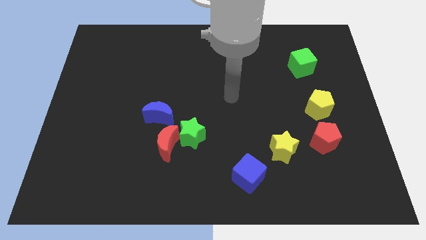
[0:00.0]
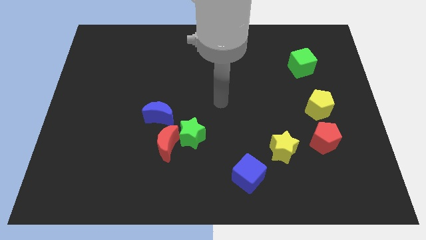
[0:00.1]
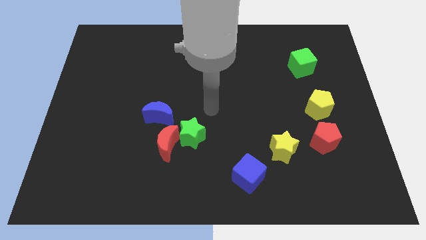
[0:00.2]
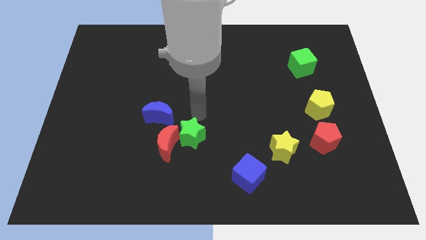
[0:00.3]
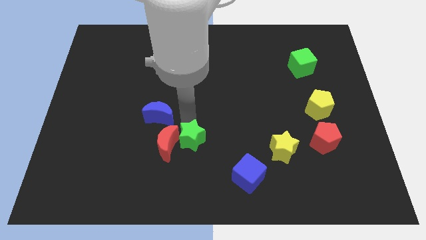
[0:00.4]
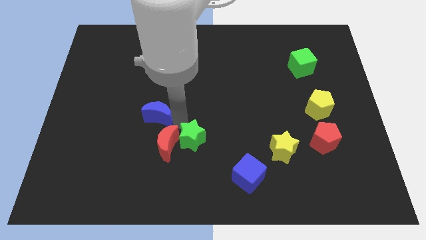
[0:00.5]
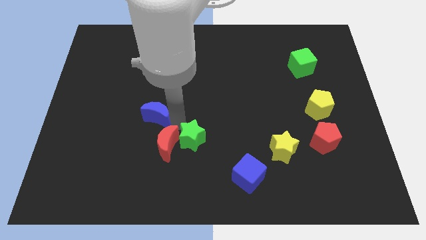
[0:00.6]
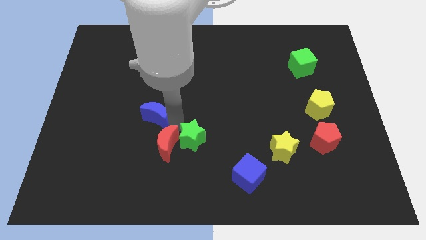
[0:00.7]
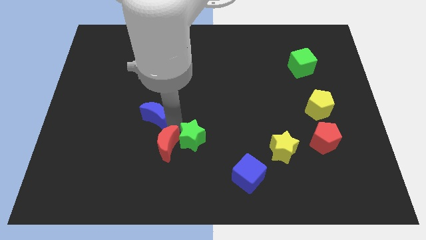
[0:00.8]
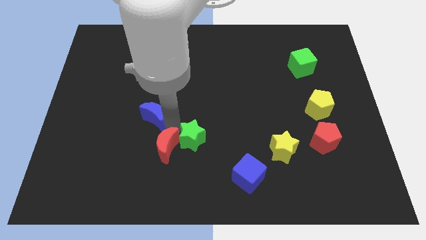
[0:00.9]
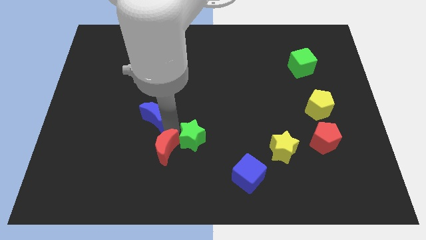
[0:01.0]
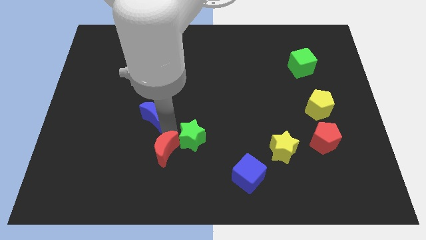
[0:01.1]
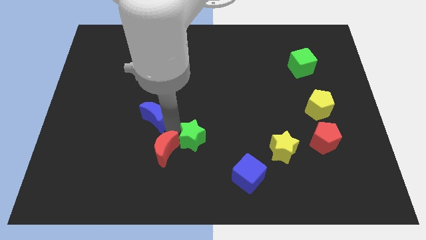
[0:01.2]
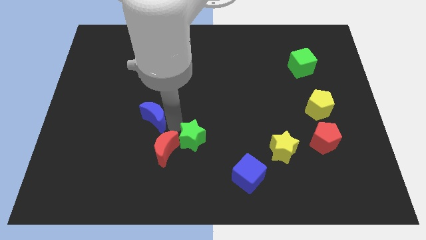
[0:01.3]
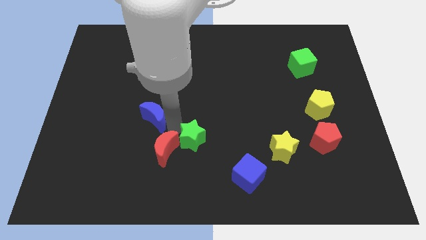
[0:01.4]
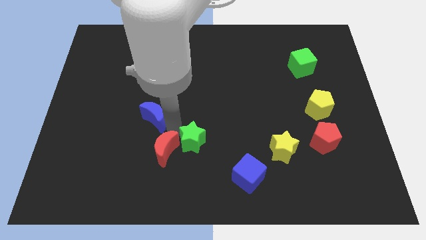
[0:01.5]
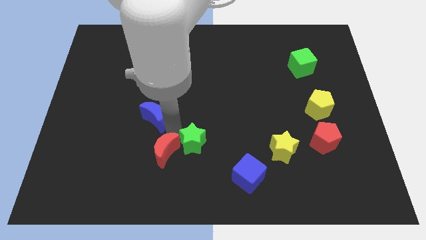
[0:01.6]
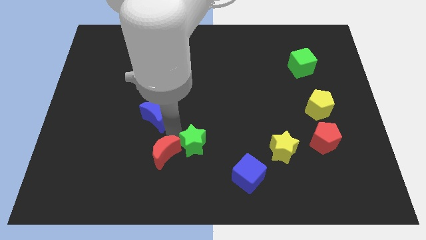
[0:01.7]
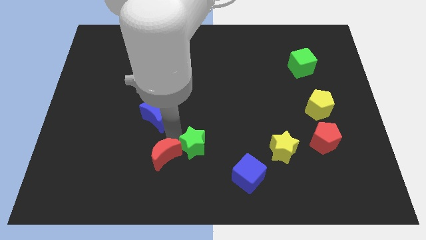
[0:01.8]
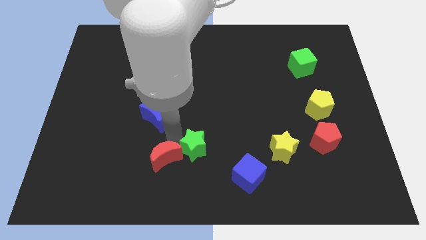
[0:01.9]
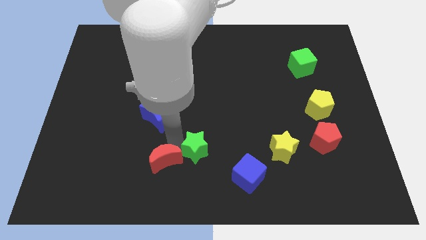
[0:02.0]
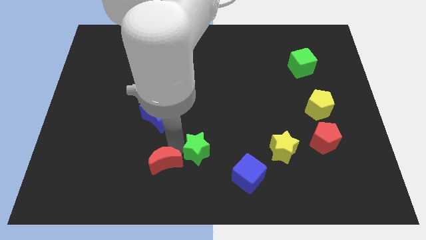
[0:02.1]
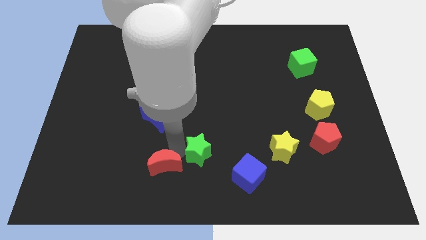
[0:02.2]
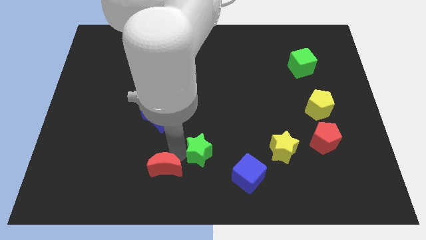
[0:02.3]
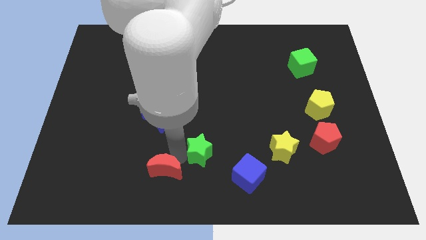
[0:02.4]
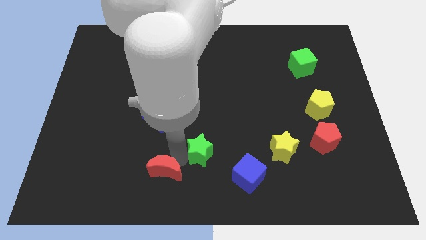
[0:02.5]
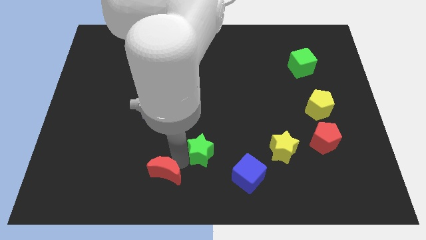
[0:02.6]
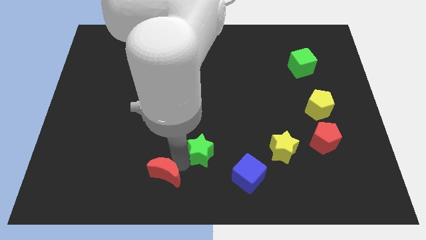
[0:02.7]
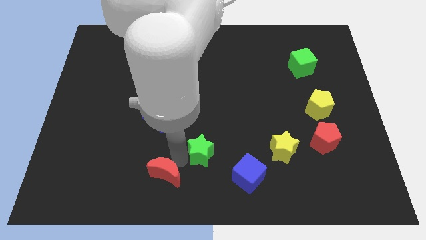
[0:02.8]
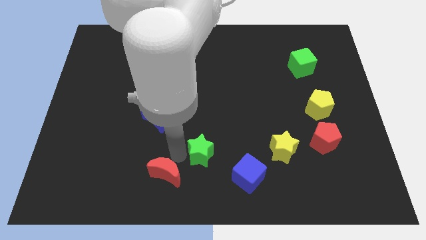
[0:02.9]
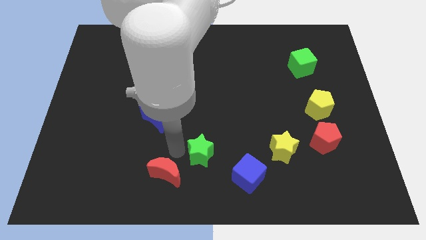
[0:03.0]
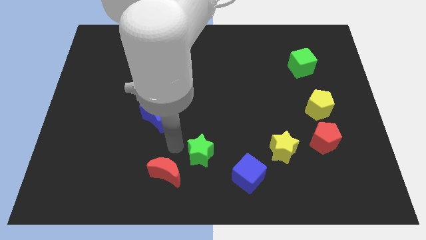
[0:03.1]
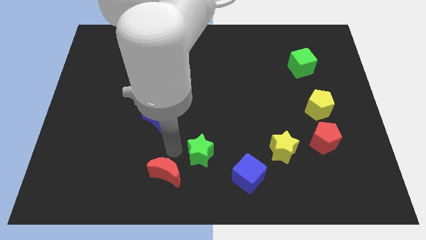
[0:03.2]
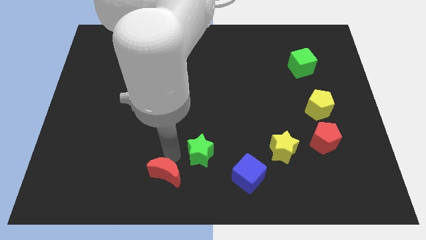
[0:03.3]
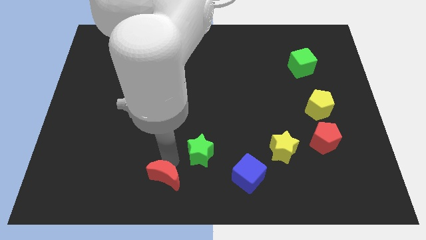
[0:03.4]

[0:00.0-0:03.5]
separate the red moon from the green star and blue moon

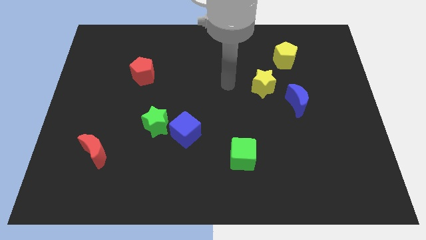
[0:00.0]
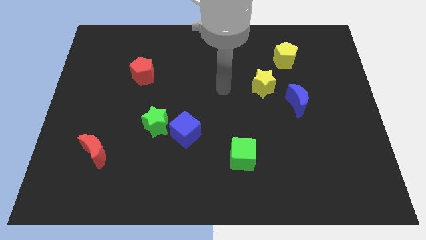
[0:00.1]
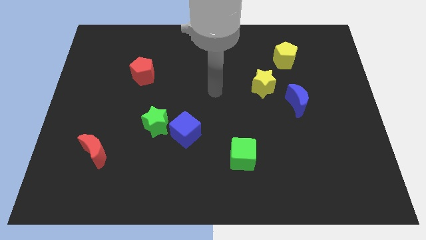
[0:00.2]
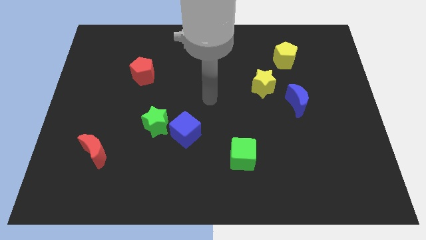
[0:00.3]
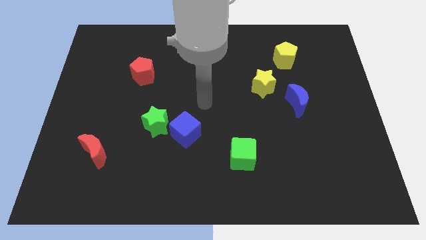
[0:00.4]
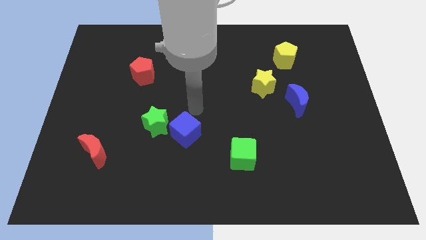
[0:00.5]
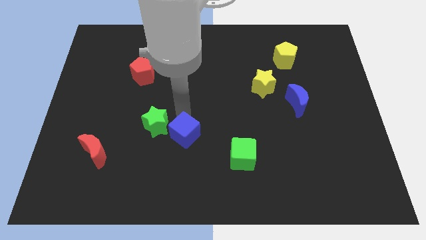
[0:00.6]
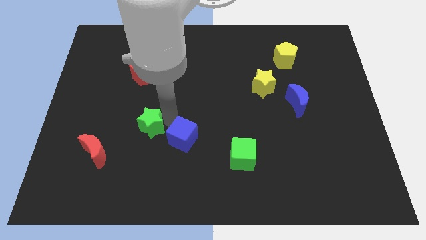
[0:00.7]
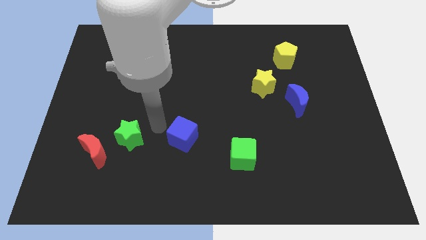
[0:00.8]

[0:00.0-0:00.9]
pull the blue cube apart from the green star

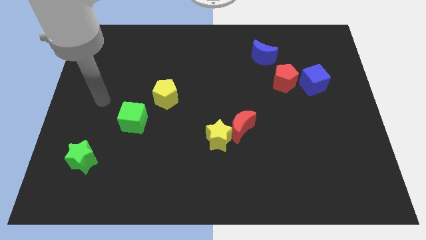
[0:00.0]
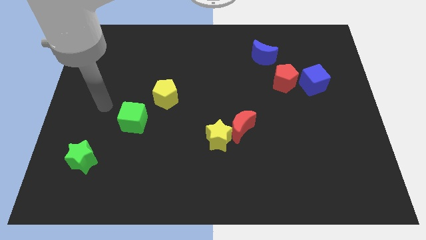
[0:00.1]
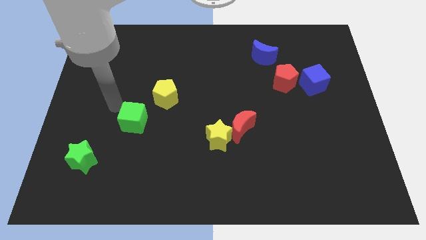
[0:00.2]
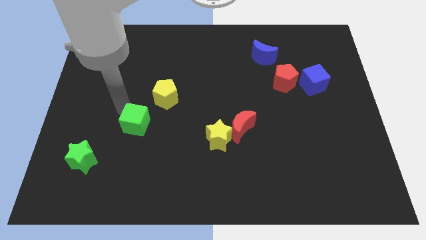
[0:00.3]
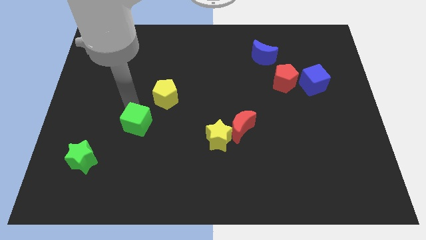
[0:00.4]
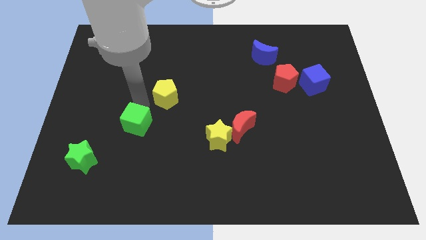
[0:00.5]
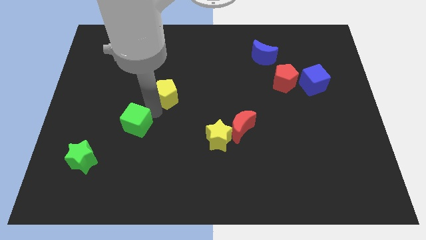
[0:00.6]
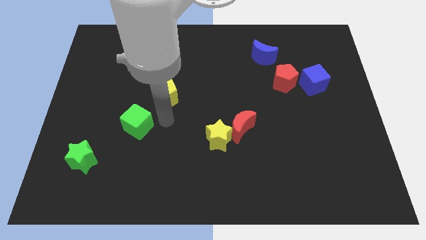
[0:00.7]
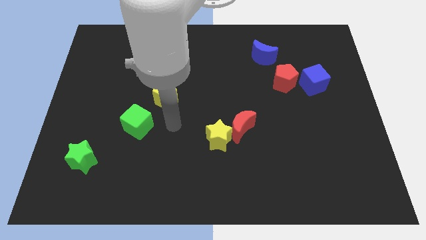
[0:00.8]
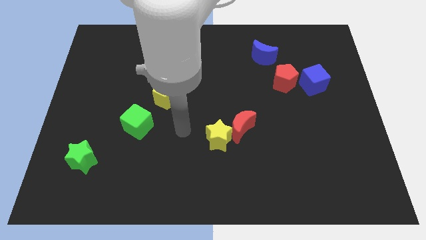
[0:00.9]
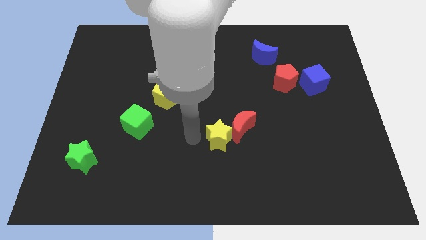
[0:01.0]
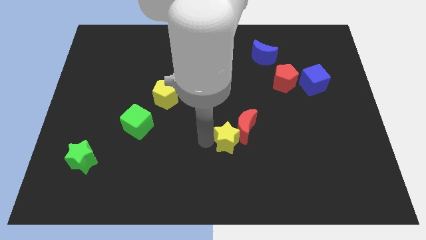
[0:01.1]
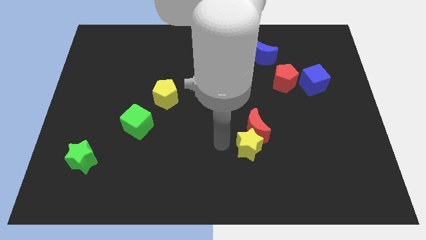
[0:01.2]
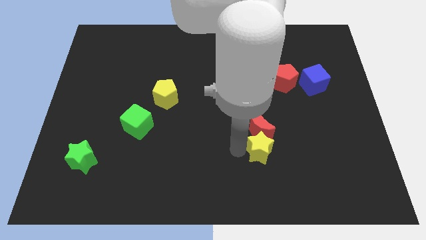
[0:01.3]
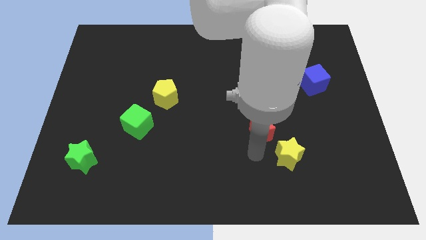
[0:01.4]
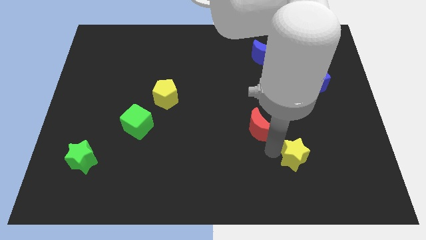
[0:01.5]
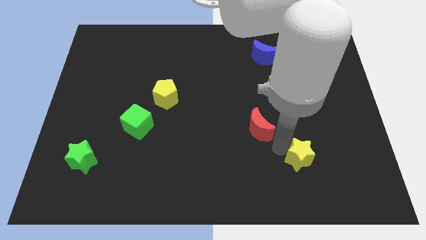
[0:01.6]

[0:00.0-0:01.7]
separate the red moon from the yellow star

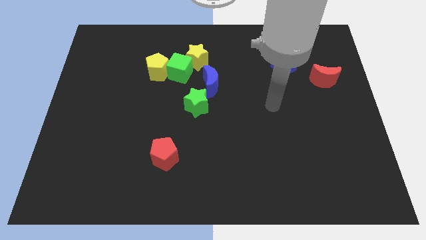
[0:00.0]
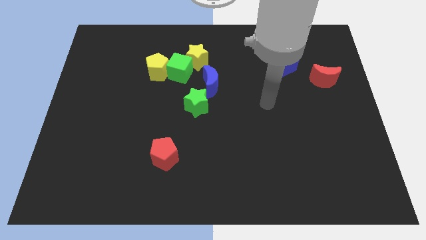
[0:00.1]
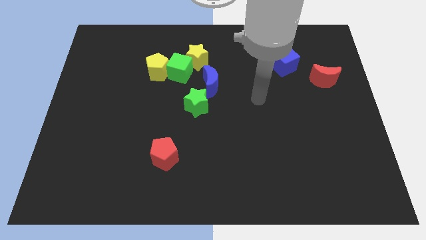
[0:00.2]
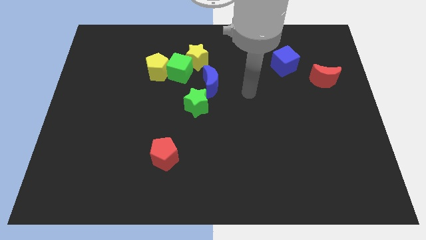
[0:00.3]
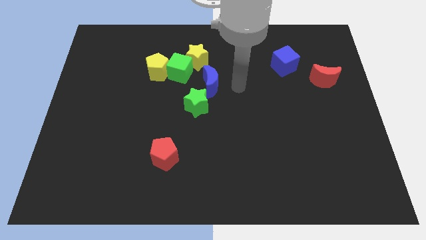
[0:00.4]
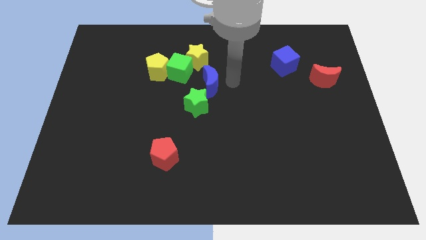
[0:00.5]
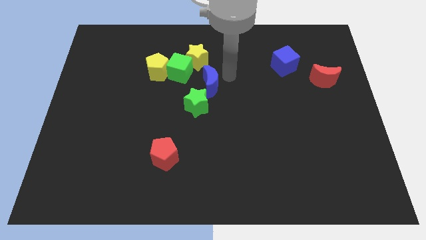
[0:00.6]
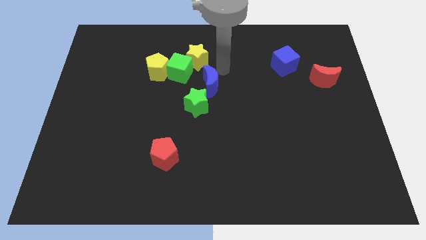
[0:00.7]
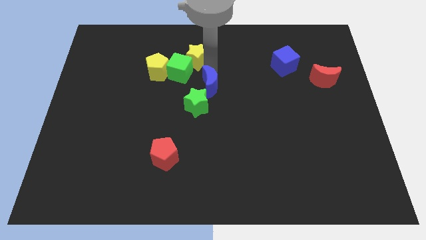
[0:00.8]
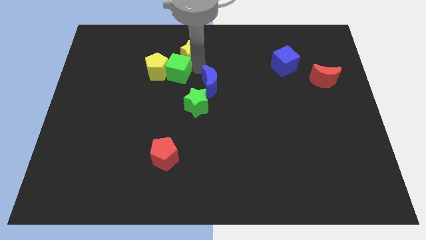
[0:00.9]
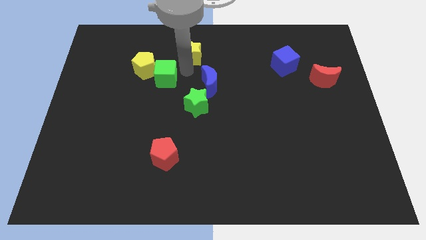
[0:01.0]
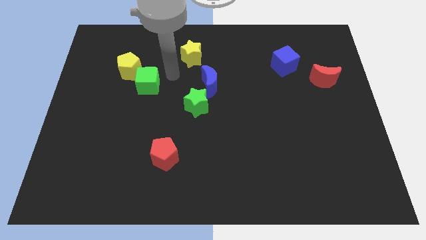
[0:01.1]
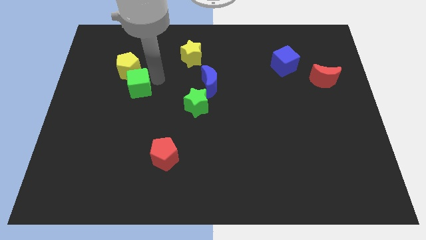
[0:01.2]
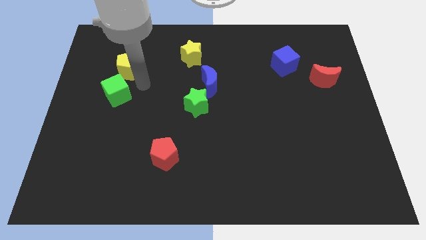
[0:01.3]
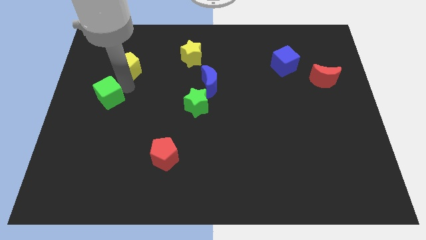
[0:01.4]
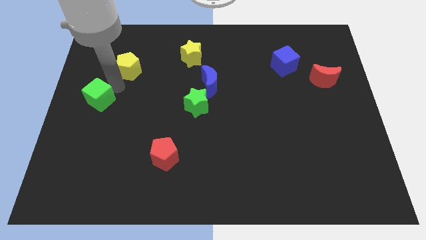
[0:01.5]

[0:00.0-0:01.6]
separate the yellow pentagon from the green cube

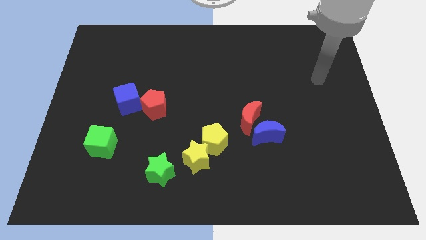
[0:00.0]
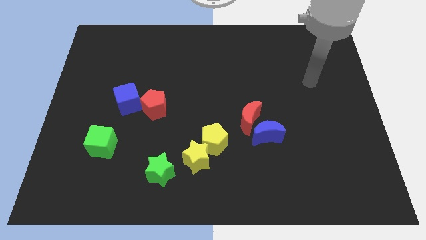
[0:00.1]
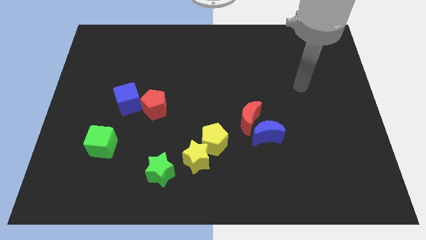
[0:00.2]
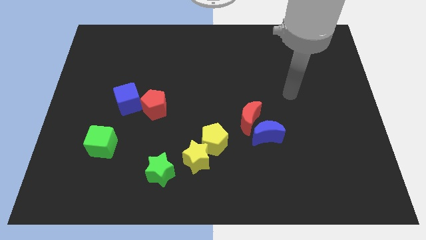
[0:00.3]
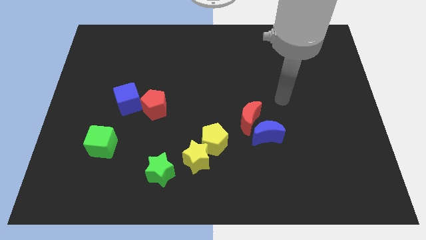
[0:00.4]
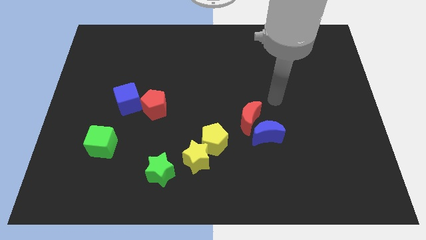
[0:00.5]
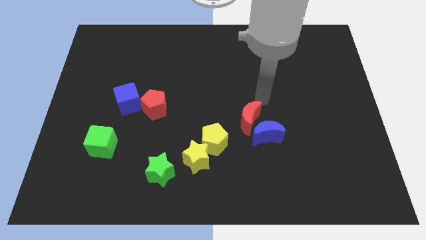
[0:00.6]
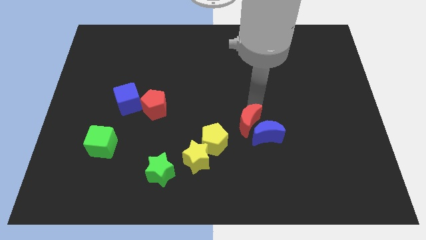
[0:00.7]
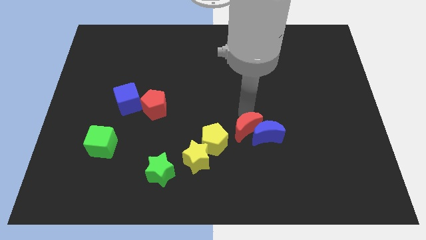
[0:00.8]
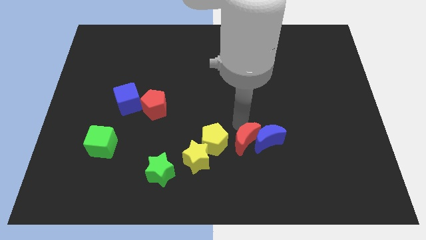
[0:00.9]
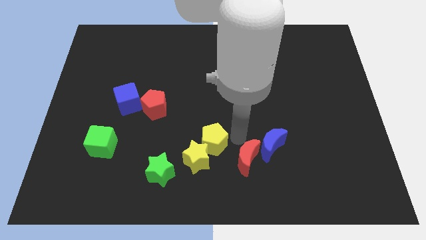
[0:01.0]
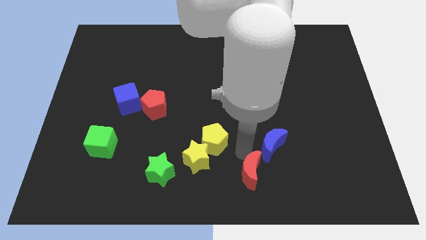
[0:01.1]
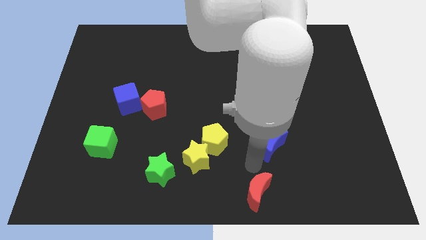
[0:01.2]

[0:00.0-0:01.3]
move the blue moon away from the red moon

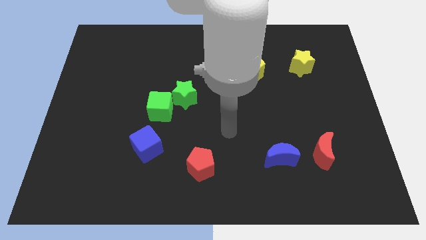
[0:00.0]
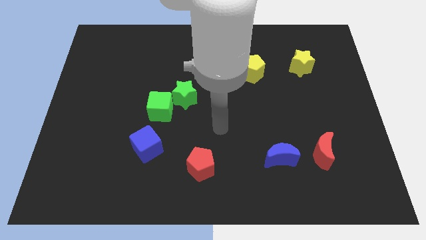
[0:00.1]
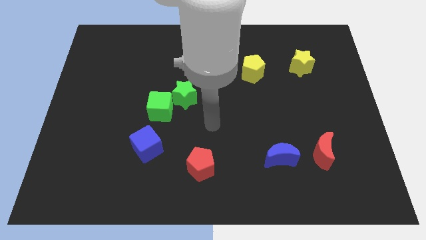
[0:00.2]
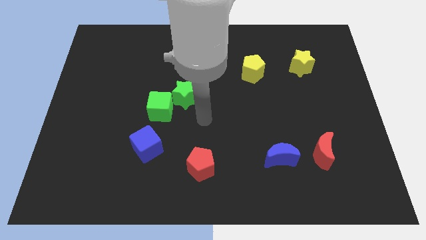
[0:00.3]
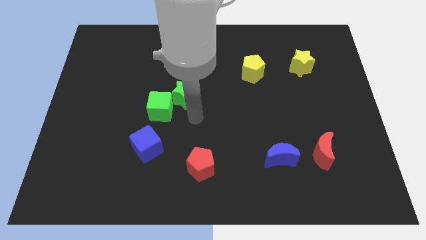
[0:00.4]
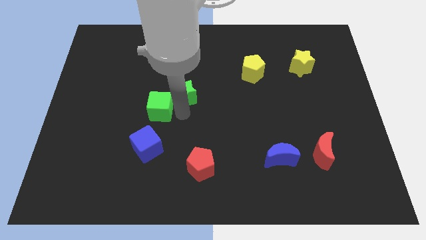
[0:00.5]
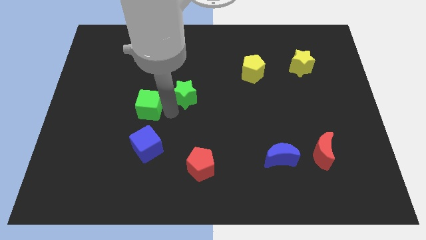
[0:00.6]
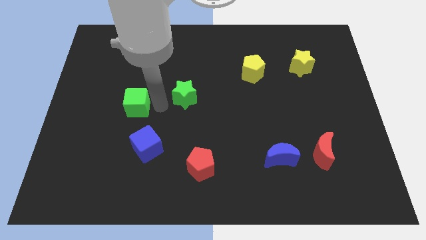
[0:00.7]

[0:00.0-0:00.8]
move the green star away from the green cube
